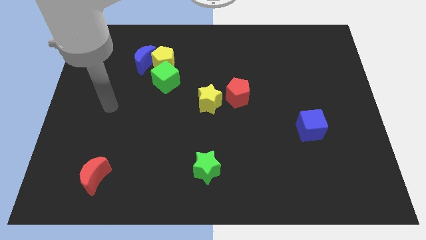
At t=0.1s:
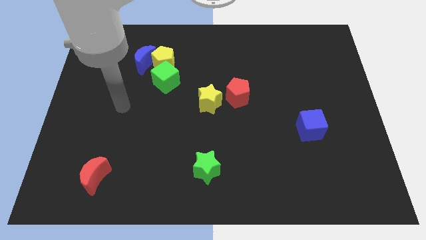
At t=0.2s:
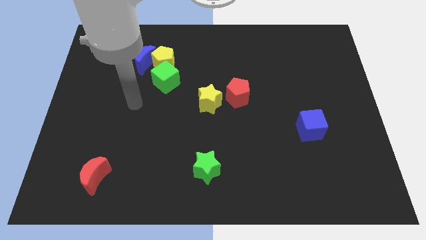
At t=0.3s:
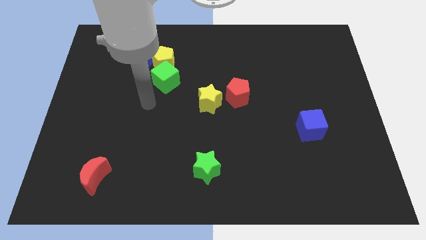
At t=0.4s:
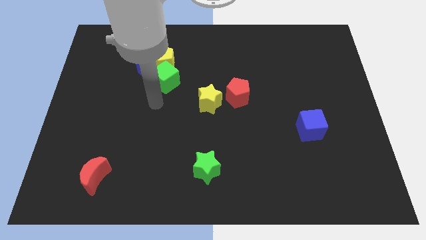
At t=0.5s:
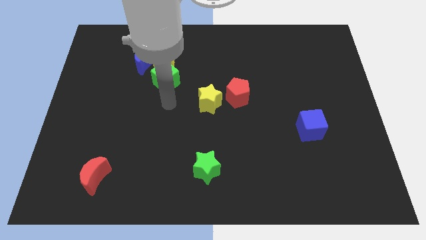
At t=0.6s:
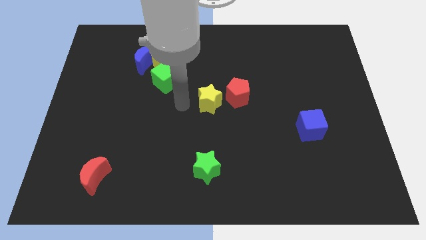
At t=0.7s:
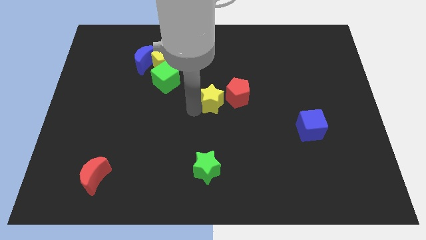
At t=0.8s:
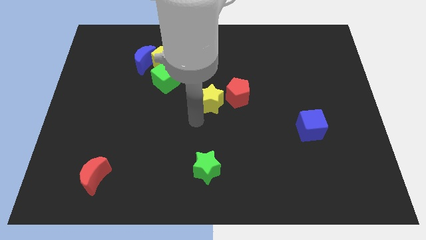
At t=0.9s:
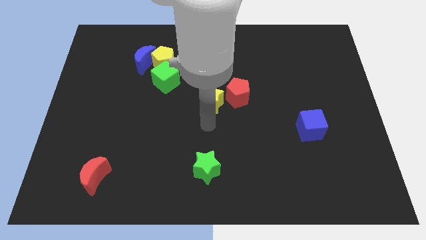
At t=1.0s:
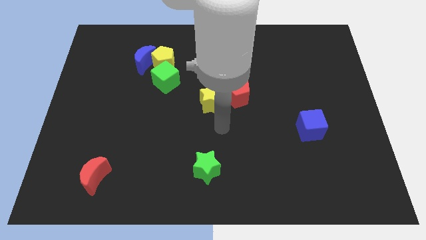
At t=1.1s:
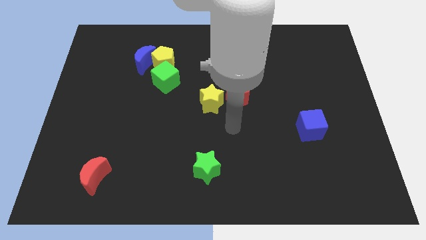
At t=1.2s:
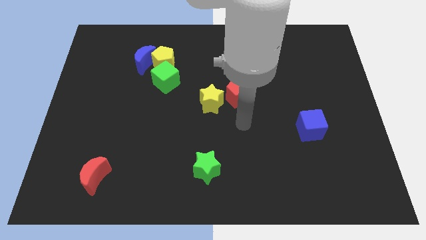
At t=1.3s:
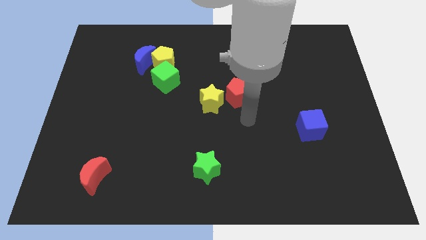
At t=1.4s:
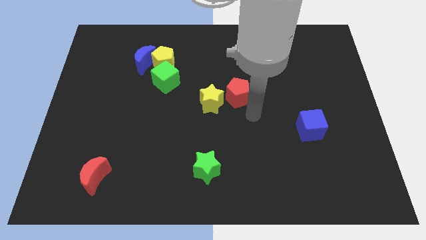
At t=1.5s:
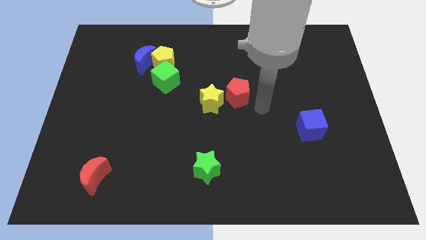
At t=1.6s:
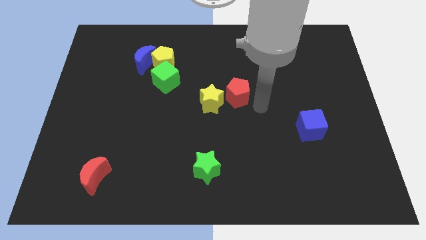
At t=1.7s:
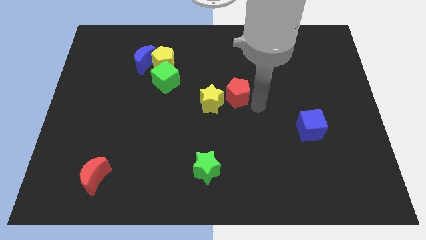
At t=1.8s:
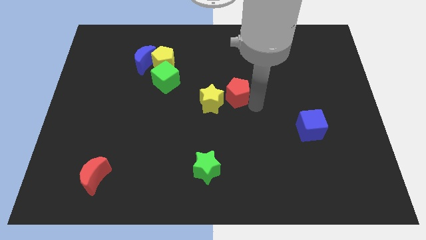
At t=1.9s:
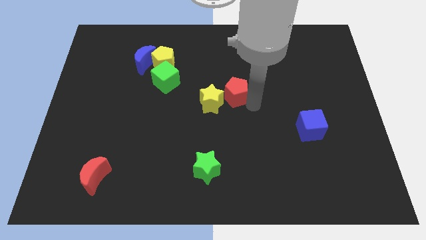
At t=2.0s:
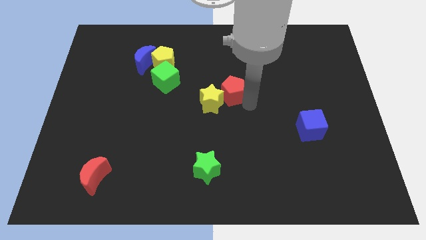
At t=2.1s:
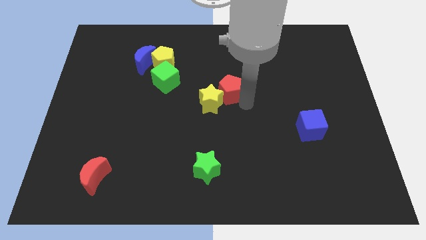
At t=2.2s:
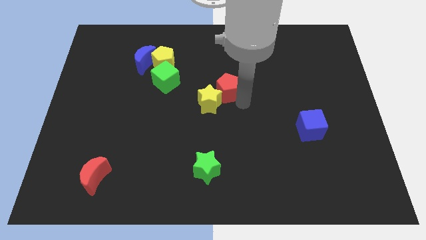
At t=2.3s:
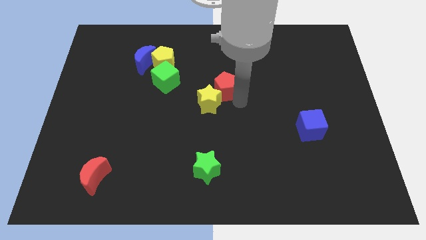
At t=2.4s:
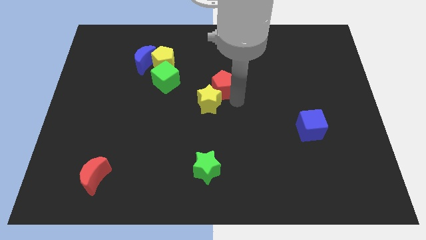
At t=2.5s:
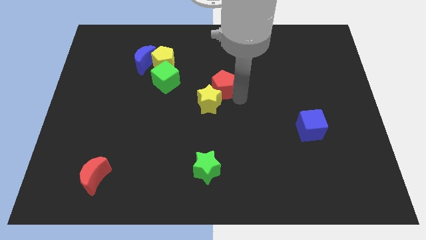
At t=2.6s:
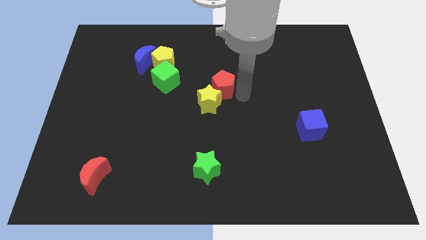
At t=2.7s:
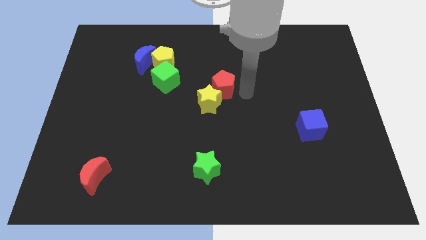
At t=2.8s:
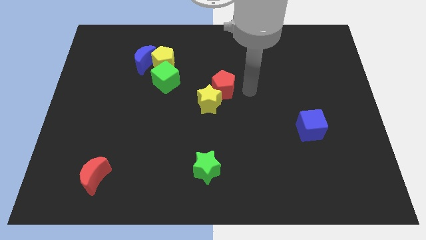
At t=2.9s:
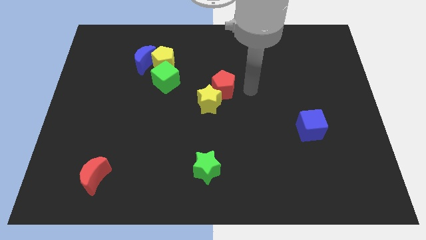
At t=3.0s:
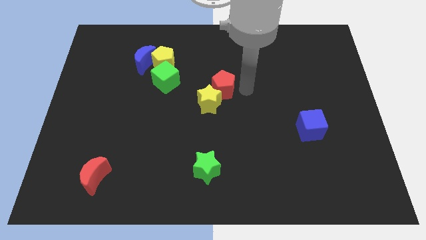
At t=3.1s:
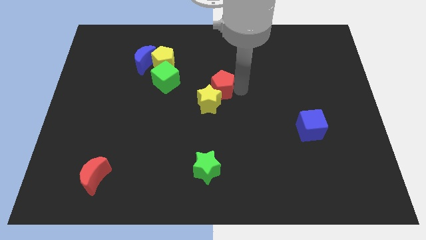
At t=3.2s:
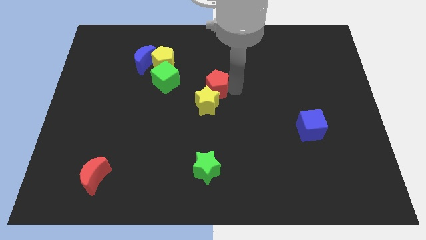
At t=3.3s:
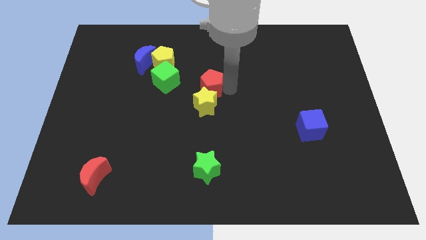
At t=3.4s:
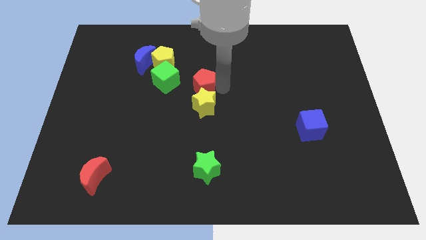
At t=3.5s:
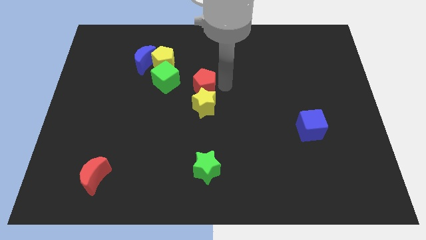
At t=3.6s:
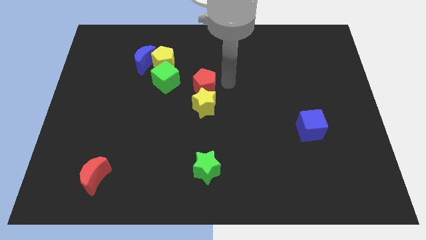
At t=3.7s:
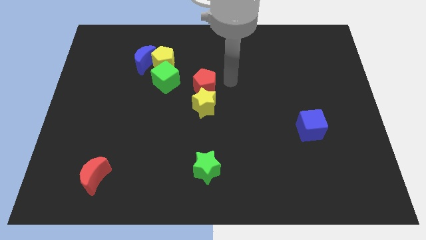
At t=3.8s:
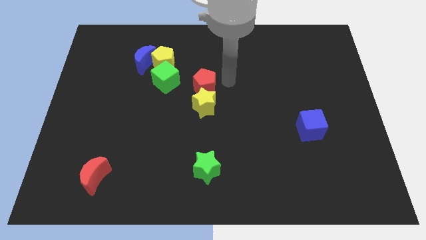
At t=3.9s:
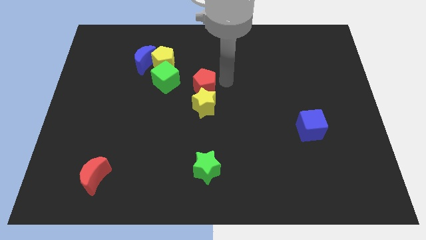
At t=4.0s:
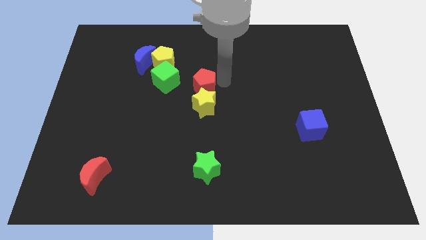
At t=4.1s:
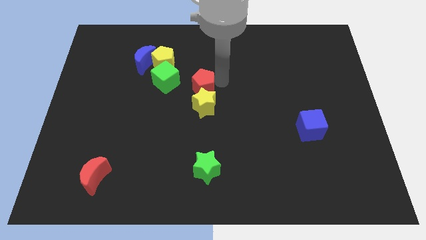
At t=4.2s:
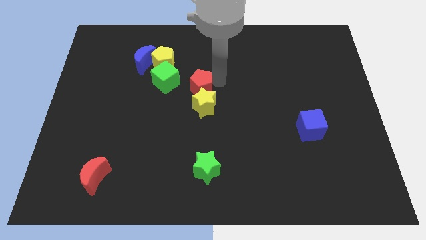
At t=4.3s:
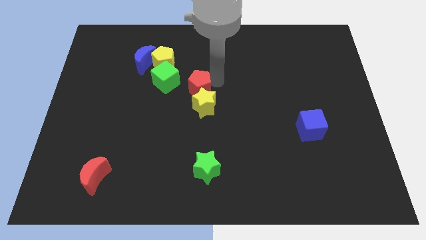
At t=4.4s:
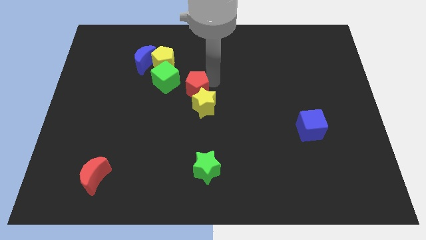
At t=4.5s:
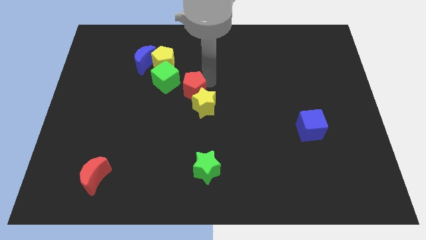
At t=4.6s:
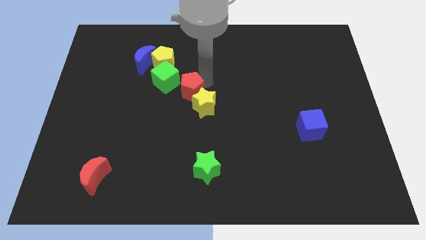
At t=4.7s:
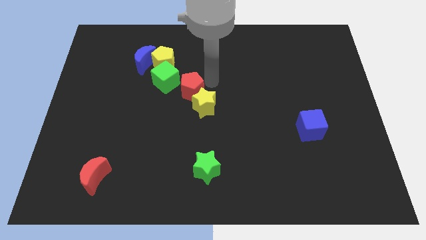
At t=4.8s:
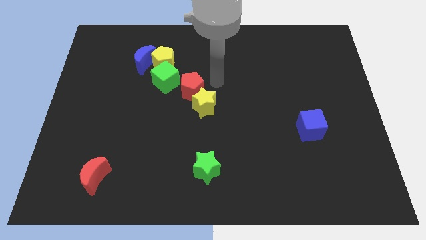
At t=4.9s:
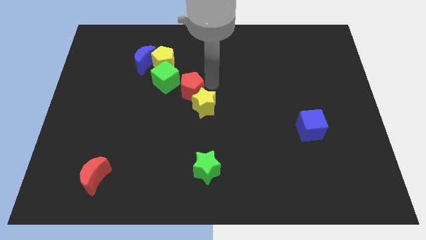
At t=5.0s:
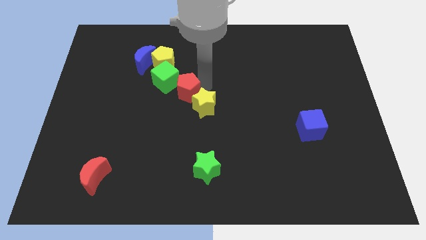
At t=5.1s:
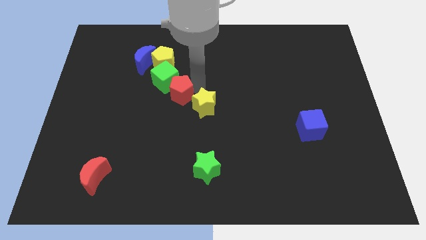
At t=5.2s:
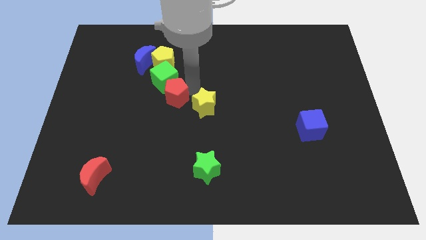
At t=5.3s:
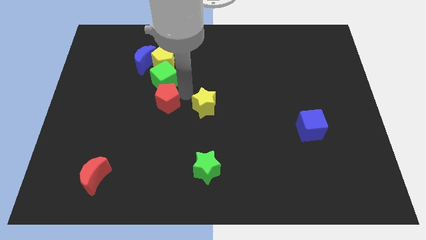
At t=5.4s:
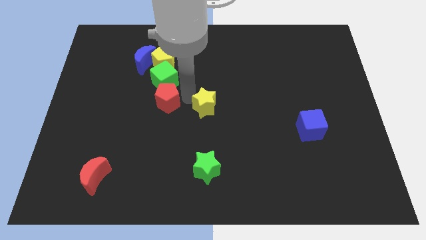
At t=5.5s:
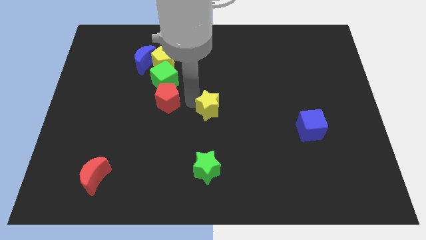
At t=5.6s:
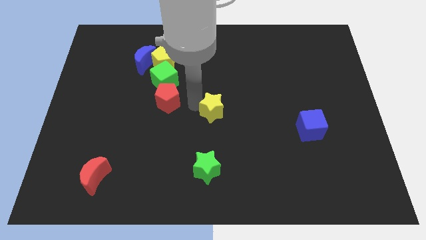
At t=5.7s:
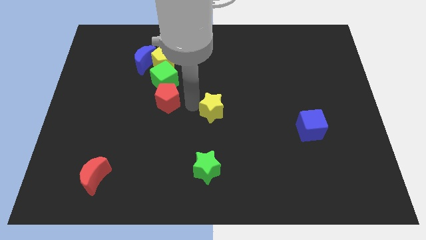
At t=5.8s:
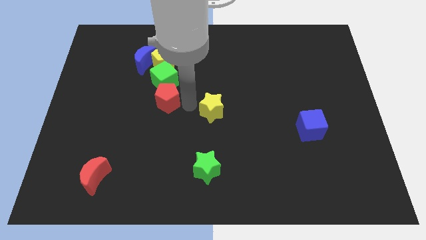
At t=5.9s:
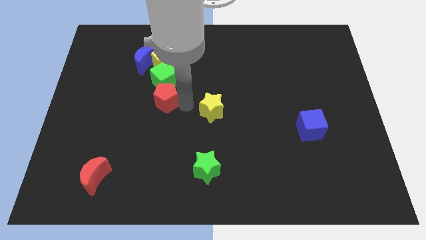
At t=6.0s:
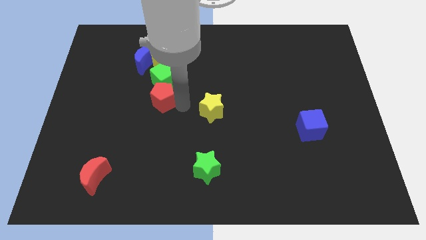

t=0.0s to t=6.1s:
push the red pentagon to the bottom left of the green cube

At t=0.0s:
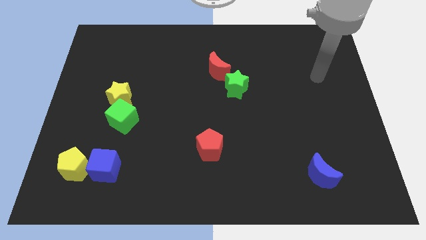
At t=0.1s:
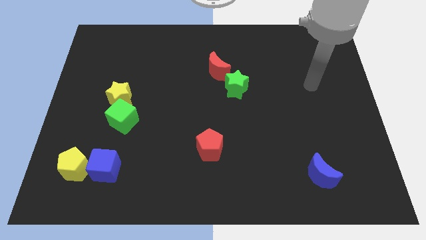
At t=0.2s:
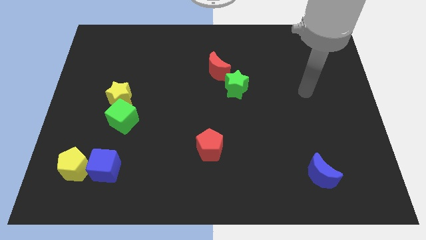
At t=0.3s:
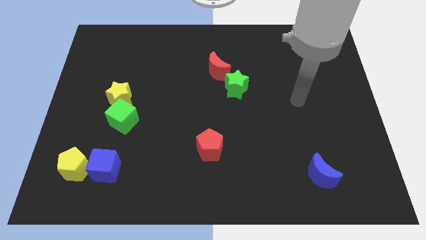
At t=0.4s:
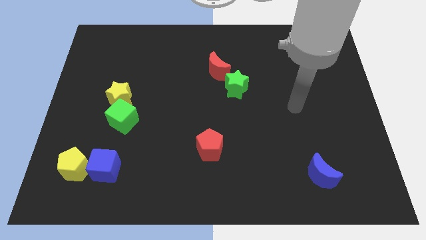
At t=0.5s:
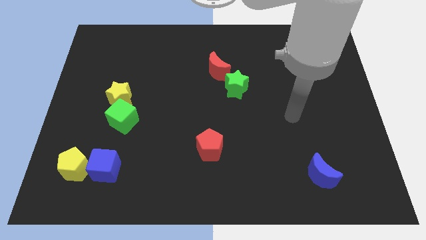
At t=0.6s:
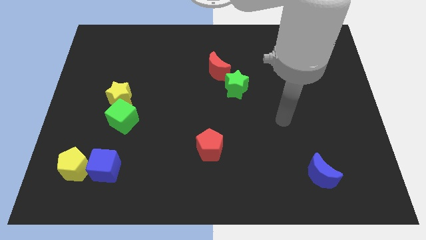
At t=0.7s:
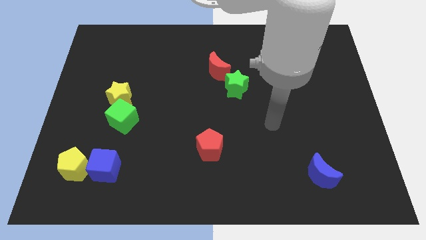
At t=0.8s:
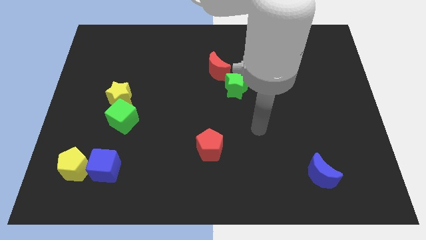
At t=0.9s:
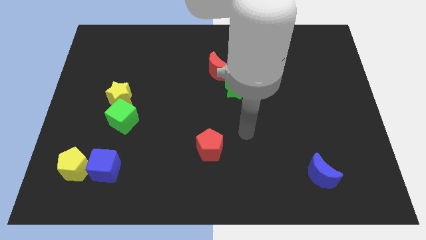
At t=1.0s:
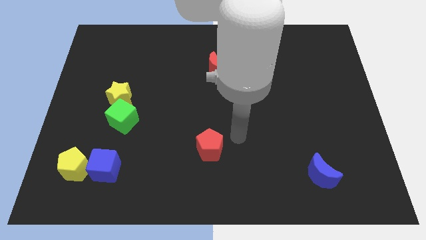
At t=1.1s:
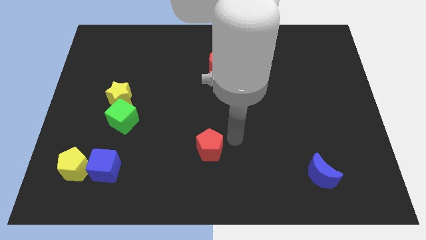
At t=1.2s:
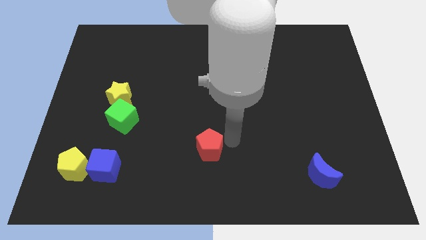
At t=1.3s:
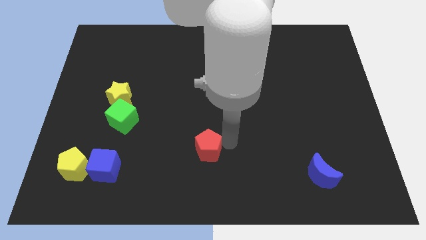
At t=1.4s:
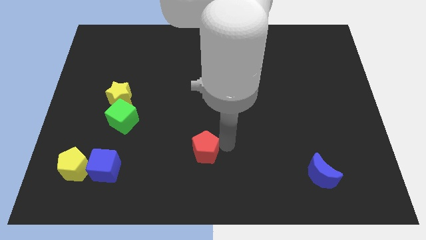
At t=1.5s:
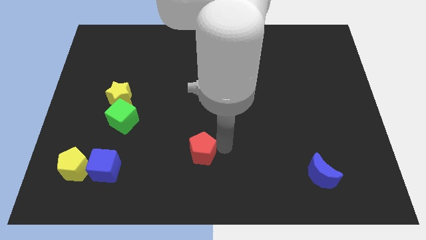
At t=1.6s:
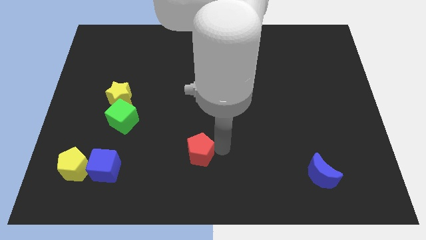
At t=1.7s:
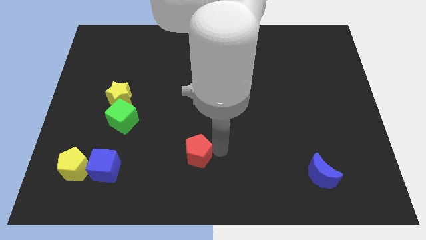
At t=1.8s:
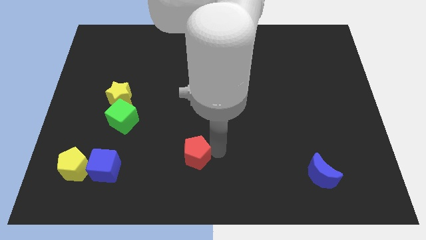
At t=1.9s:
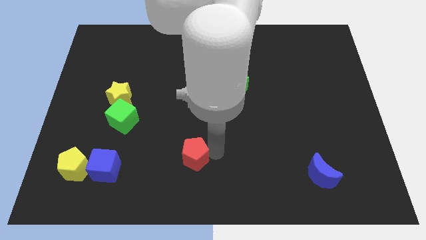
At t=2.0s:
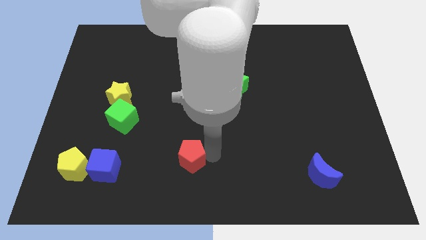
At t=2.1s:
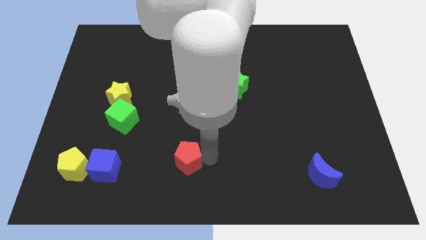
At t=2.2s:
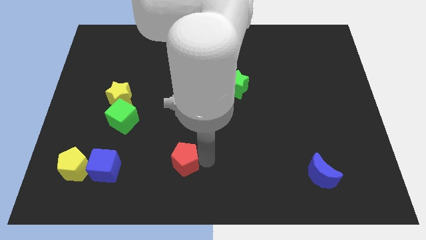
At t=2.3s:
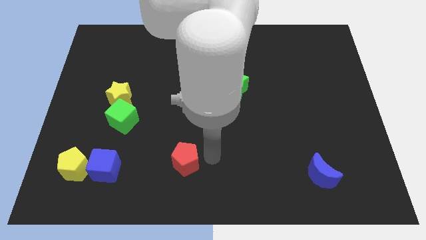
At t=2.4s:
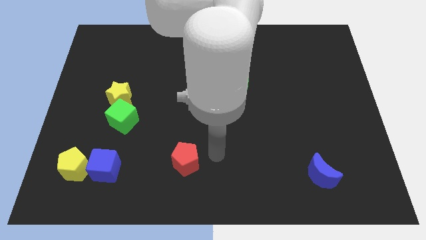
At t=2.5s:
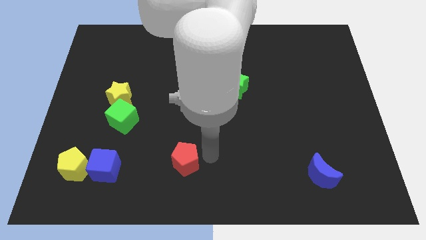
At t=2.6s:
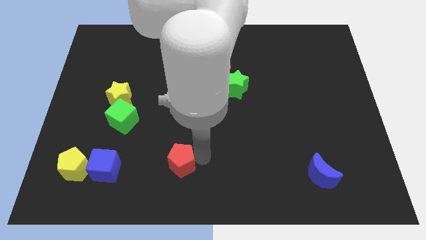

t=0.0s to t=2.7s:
slide the red pentagon just right of the blue cube
